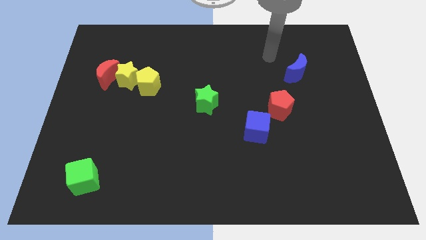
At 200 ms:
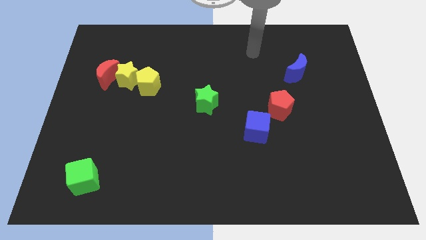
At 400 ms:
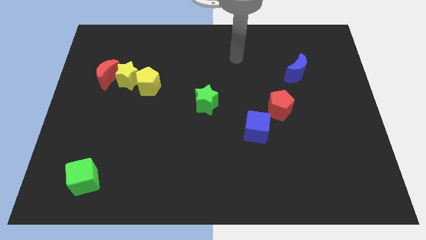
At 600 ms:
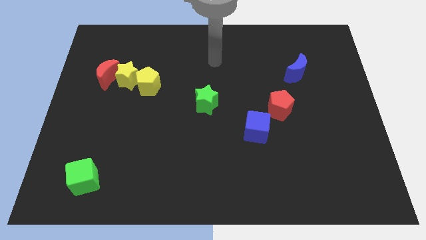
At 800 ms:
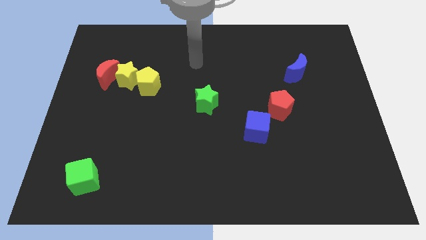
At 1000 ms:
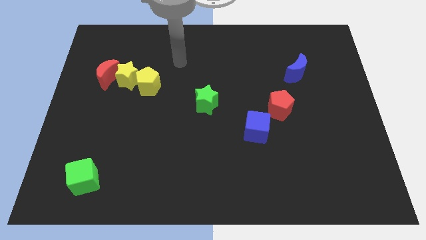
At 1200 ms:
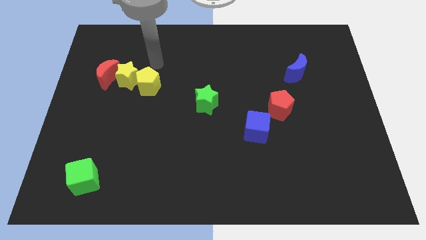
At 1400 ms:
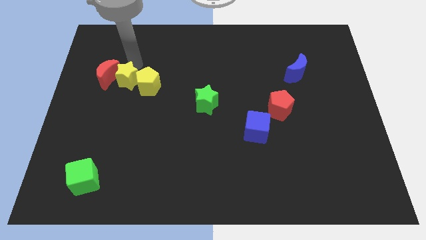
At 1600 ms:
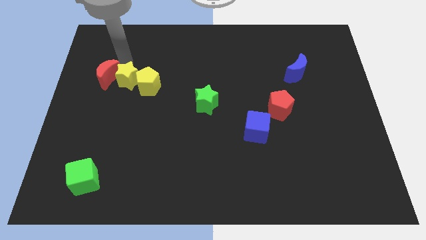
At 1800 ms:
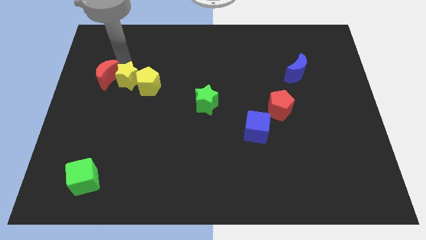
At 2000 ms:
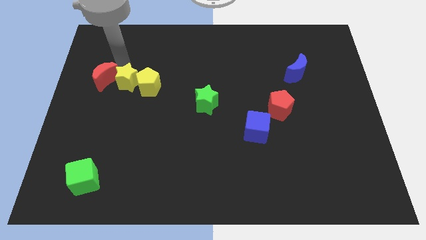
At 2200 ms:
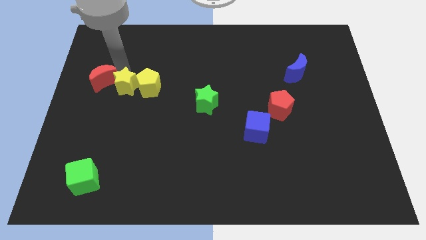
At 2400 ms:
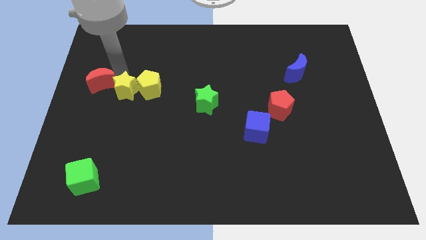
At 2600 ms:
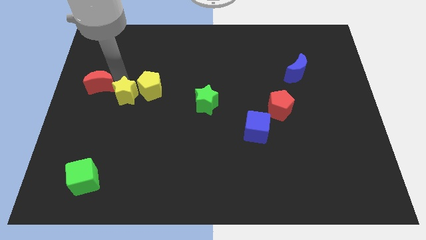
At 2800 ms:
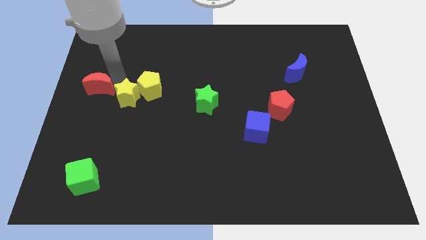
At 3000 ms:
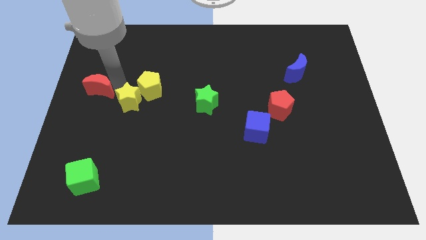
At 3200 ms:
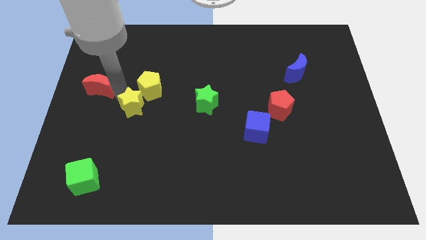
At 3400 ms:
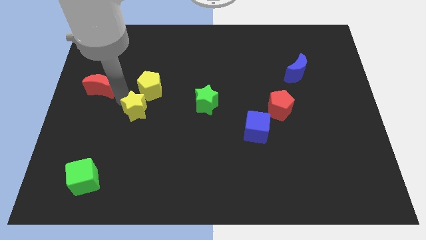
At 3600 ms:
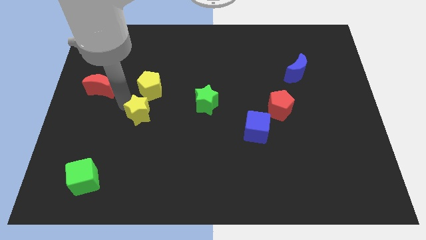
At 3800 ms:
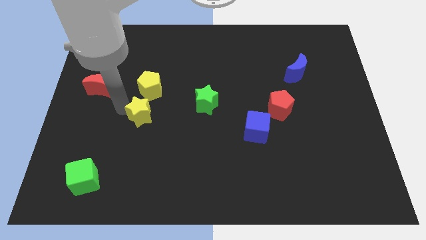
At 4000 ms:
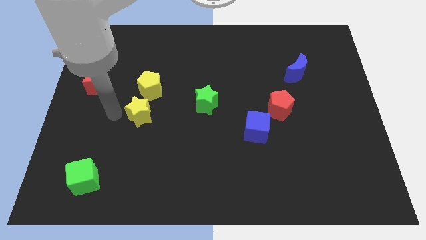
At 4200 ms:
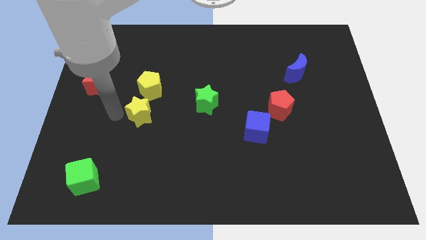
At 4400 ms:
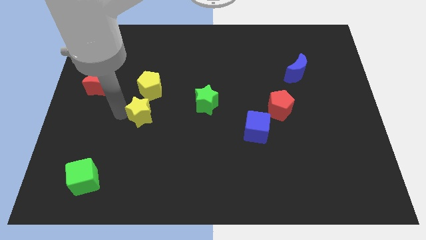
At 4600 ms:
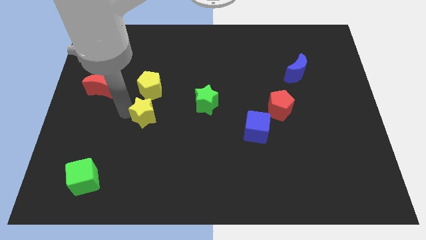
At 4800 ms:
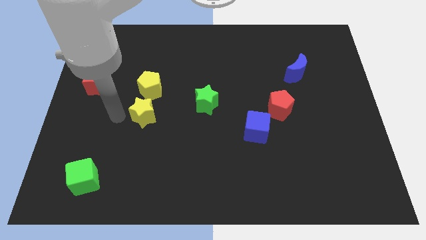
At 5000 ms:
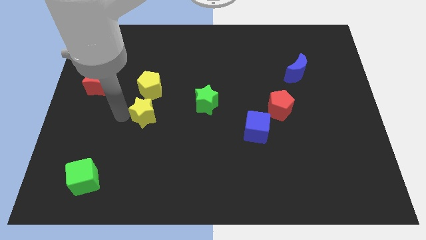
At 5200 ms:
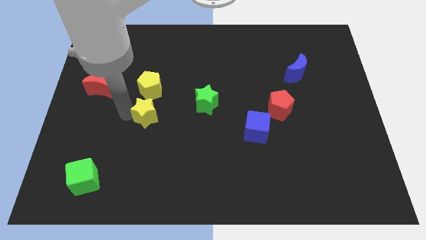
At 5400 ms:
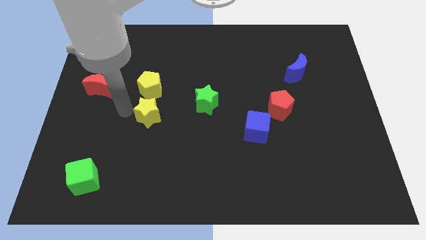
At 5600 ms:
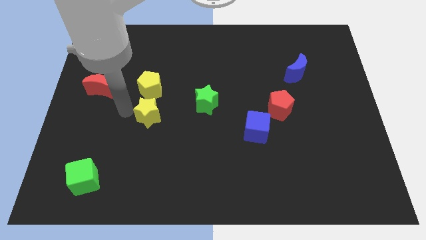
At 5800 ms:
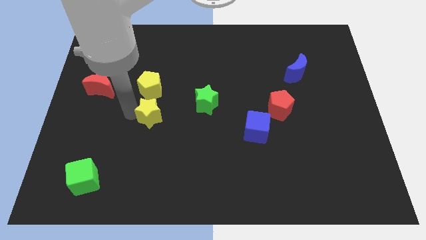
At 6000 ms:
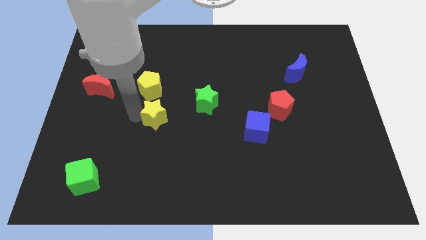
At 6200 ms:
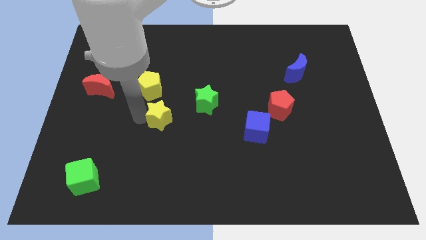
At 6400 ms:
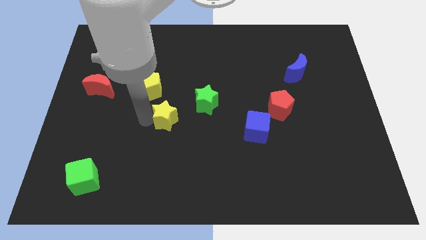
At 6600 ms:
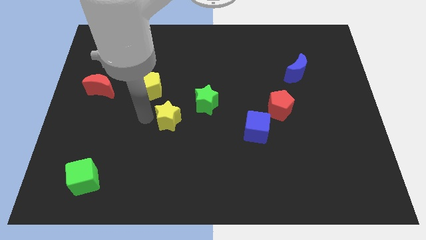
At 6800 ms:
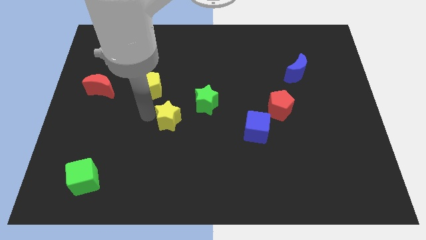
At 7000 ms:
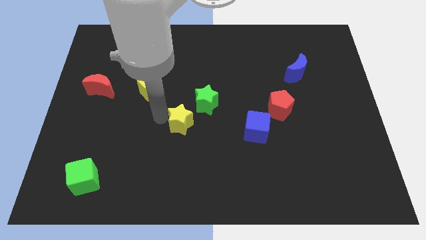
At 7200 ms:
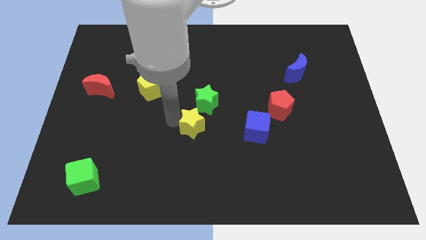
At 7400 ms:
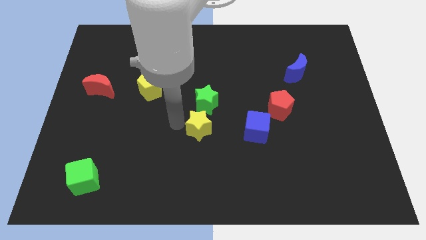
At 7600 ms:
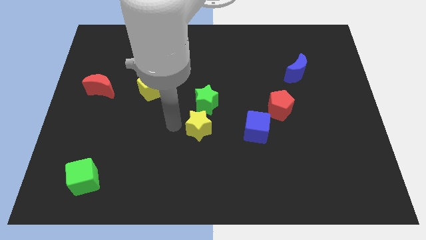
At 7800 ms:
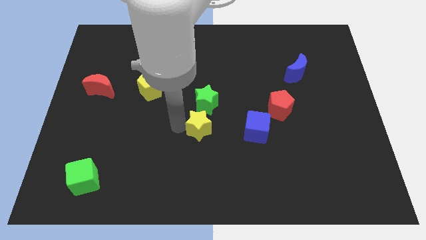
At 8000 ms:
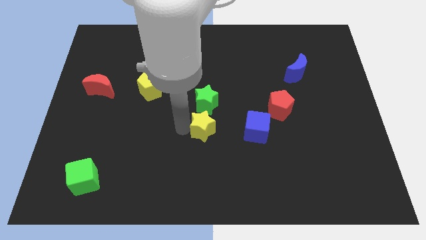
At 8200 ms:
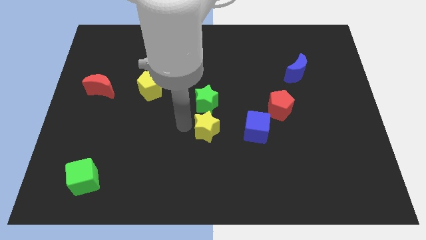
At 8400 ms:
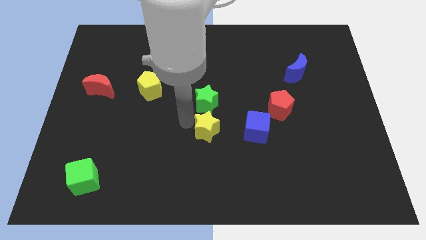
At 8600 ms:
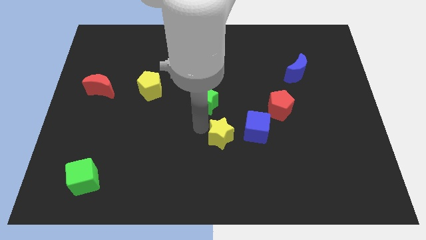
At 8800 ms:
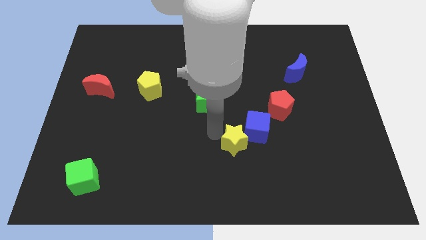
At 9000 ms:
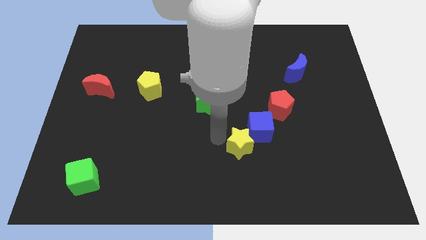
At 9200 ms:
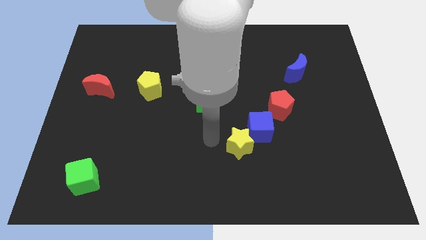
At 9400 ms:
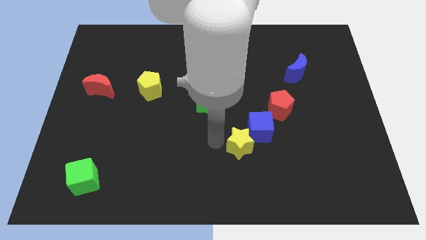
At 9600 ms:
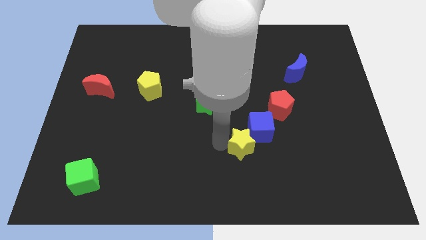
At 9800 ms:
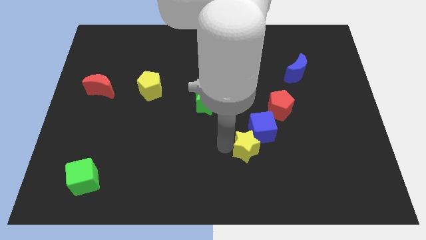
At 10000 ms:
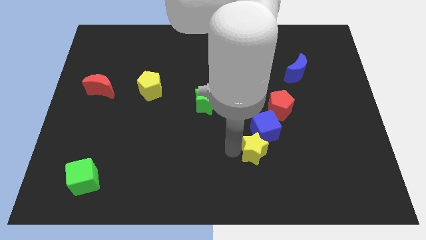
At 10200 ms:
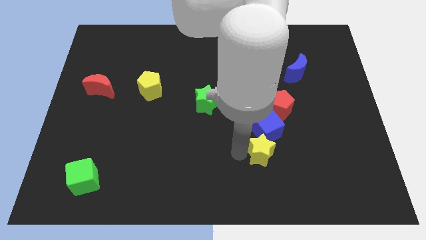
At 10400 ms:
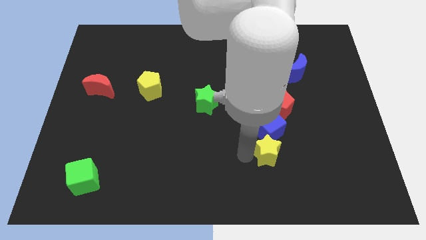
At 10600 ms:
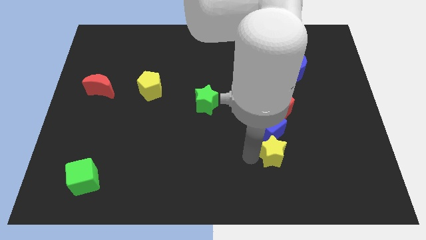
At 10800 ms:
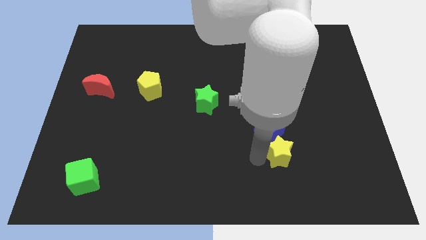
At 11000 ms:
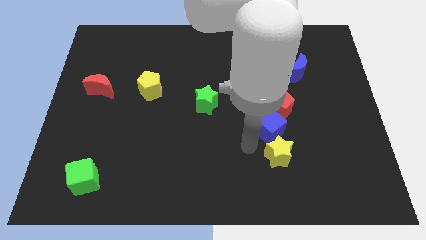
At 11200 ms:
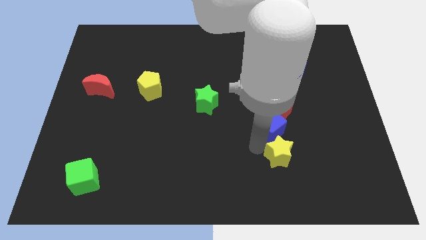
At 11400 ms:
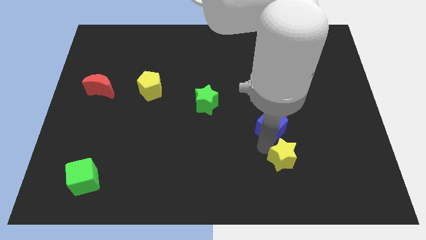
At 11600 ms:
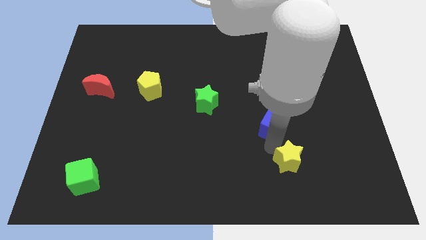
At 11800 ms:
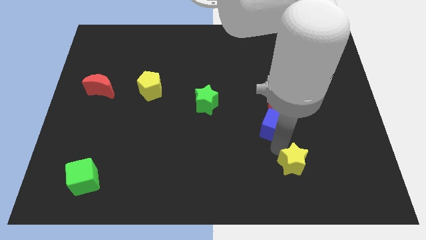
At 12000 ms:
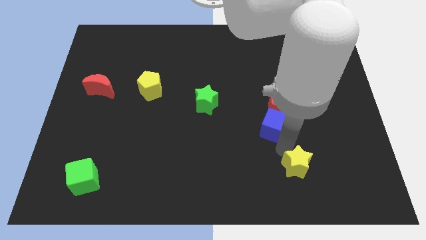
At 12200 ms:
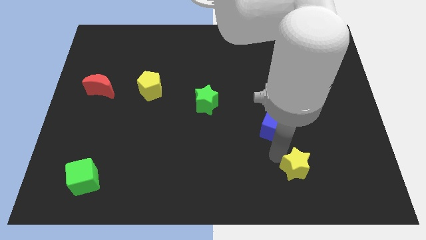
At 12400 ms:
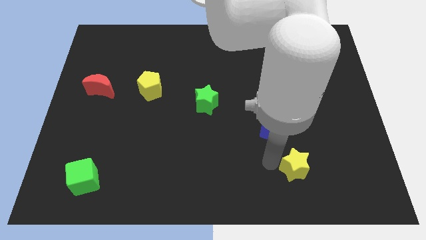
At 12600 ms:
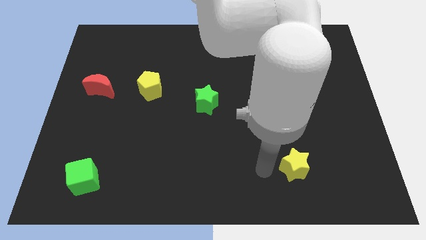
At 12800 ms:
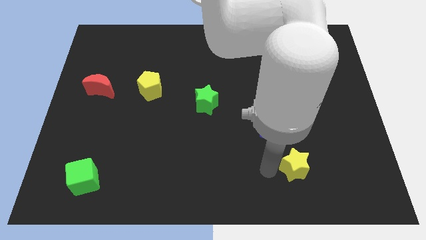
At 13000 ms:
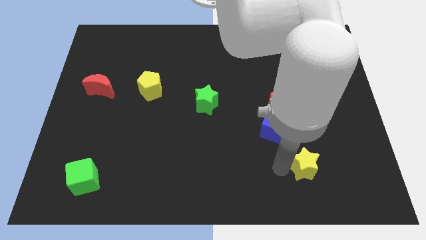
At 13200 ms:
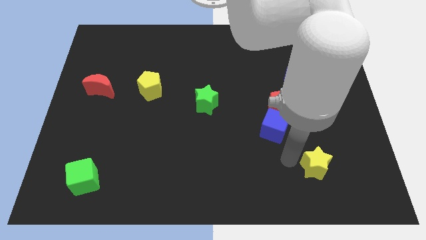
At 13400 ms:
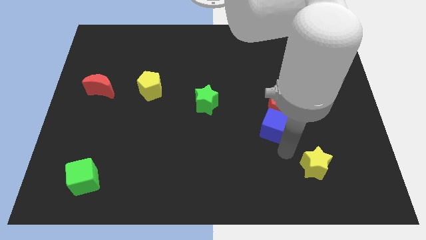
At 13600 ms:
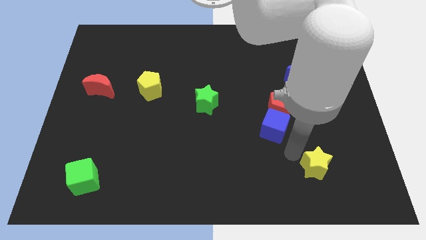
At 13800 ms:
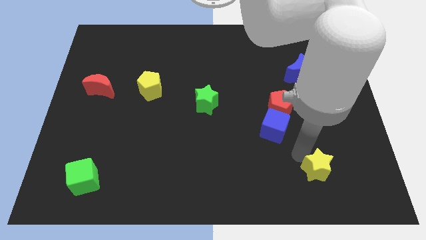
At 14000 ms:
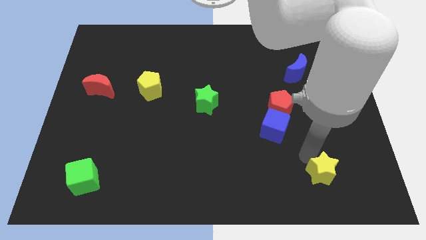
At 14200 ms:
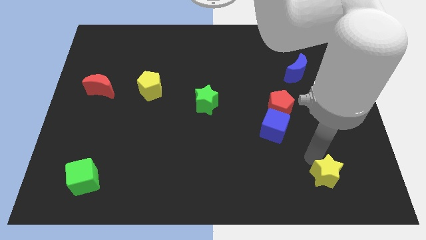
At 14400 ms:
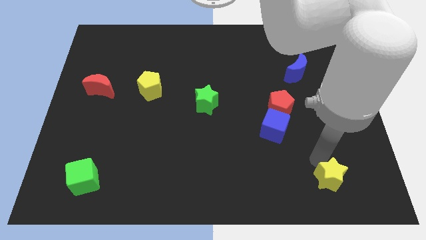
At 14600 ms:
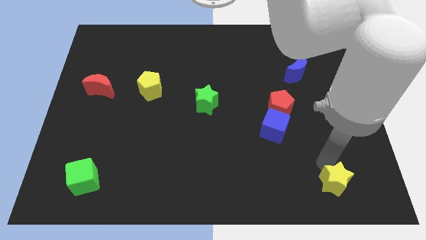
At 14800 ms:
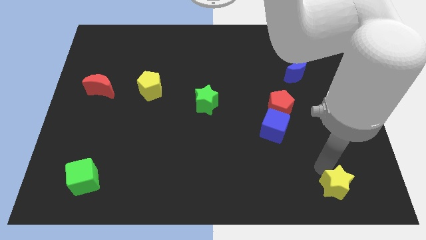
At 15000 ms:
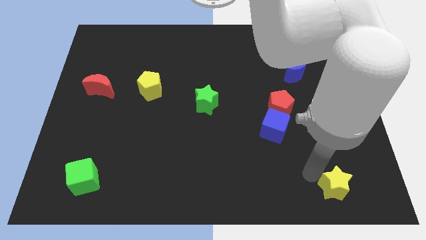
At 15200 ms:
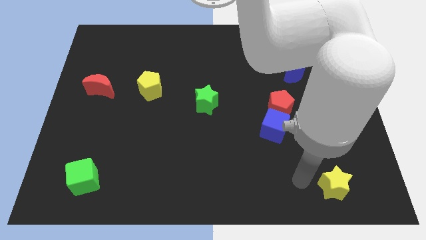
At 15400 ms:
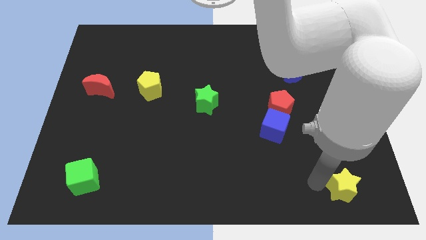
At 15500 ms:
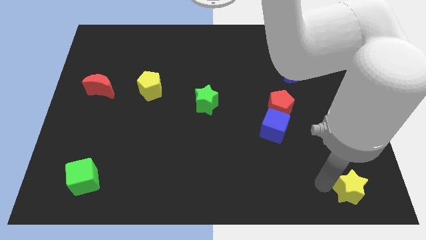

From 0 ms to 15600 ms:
put the yellow star to the bottom right of the board
